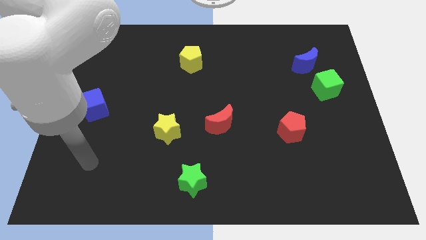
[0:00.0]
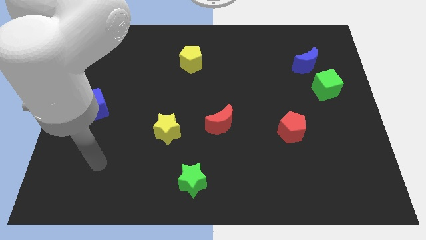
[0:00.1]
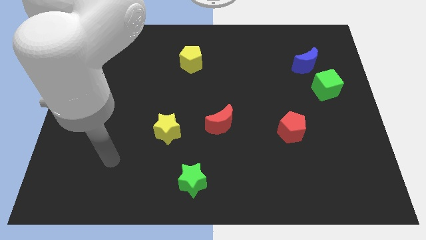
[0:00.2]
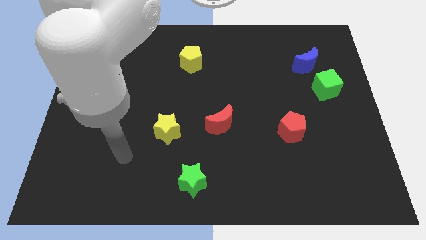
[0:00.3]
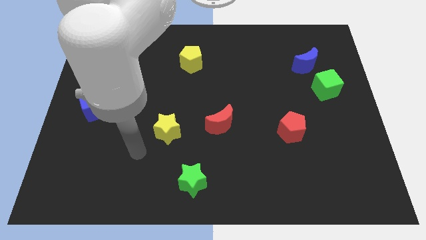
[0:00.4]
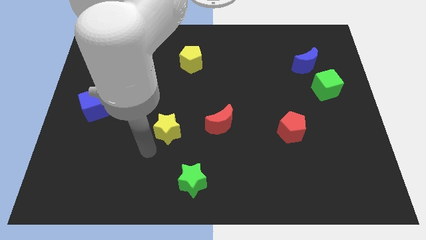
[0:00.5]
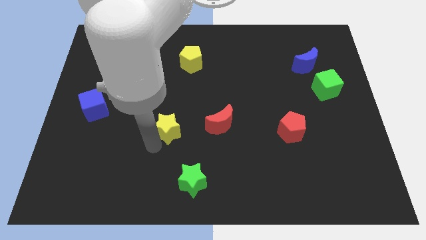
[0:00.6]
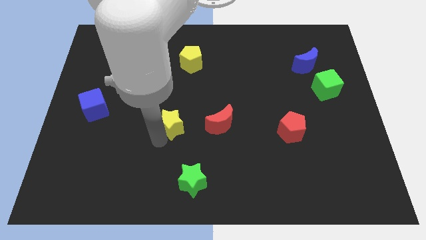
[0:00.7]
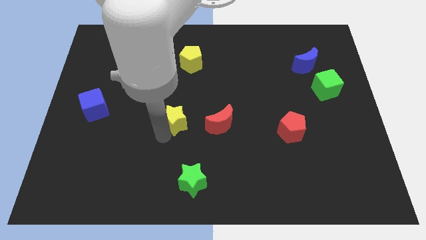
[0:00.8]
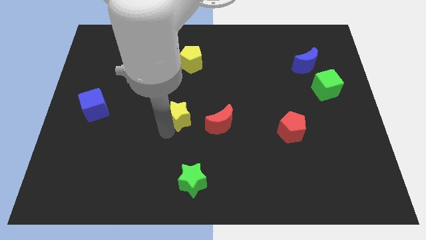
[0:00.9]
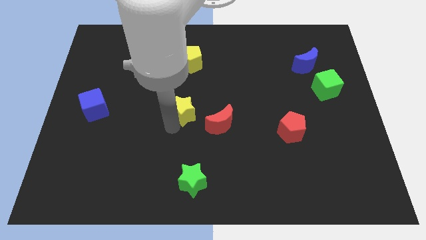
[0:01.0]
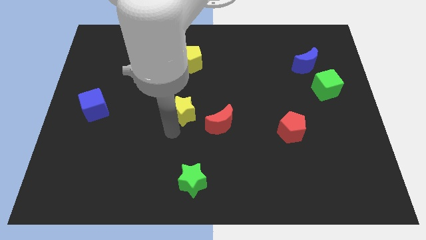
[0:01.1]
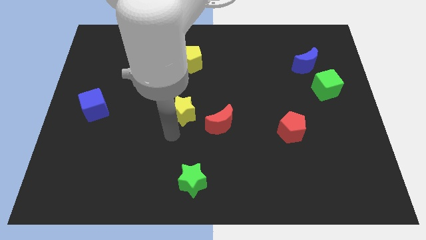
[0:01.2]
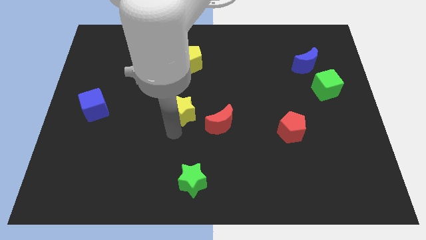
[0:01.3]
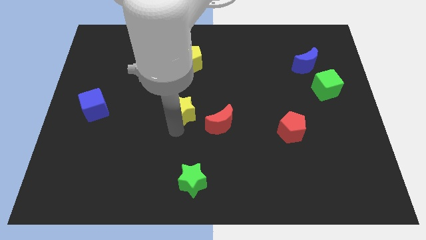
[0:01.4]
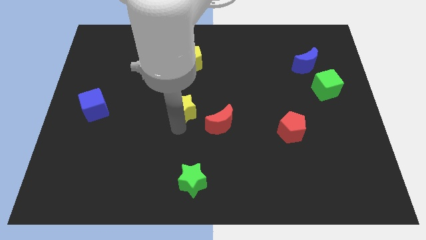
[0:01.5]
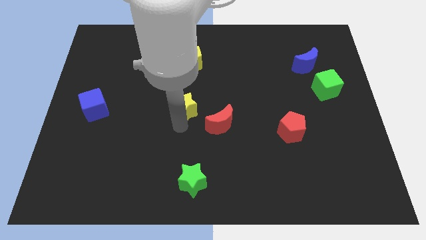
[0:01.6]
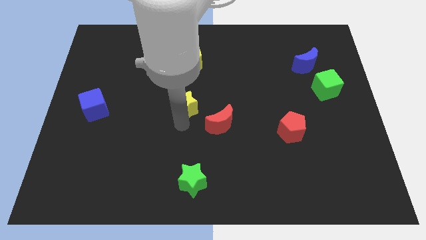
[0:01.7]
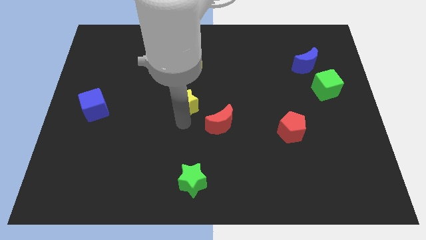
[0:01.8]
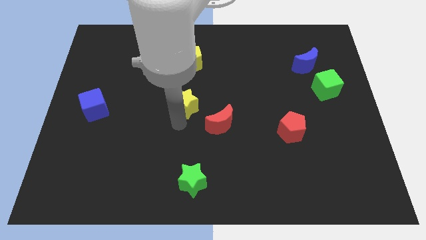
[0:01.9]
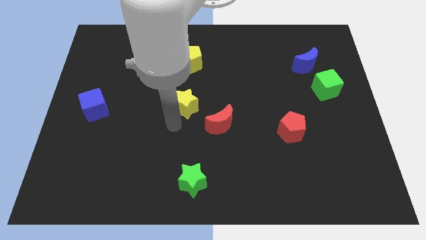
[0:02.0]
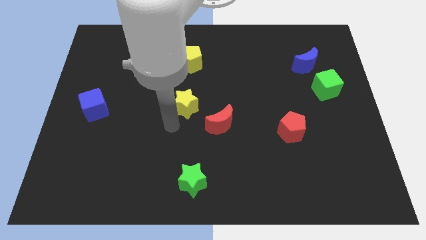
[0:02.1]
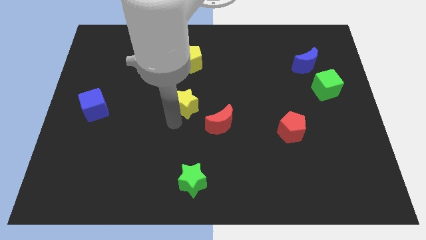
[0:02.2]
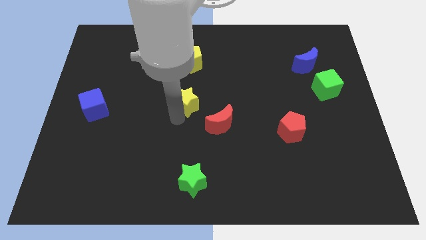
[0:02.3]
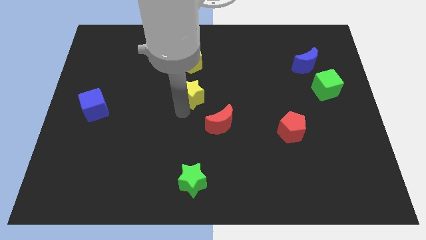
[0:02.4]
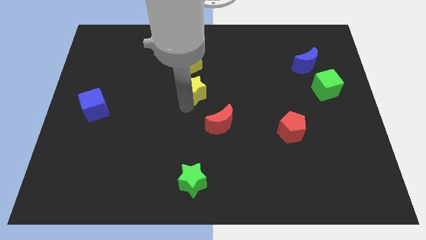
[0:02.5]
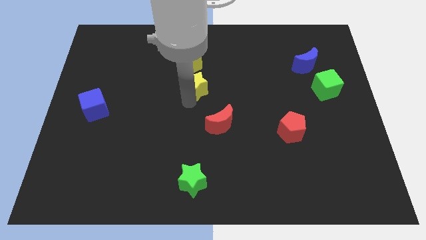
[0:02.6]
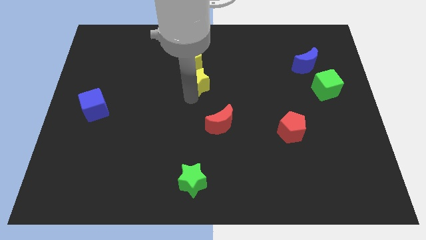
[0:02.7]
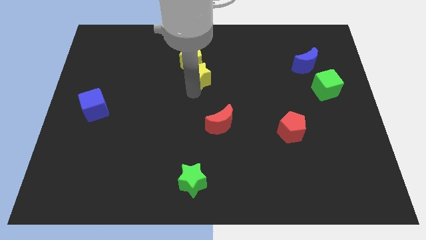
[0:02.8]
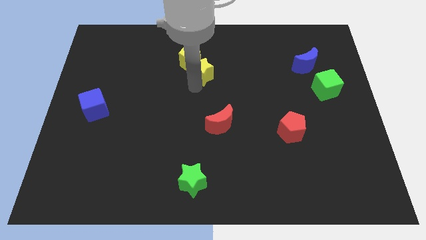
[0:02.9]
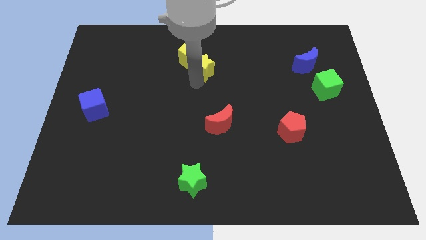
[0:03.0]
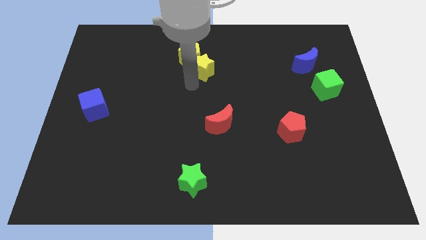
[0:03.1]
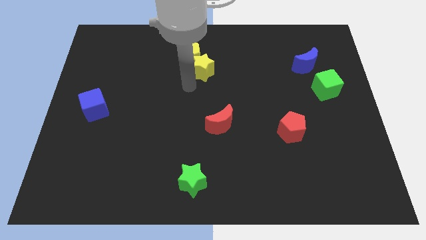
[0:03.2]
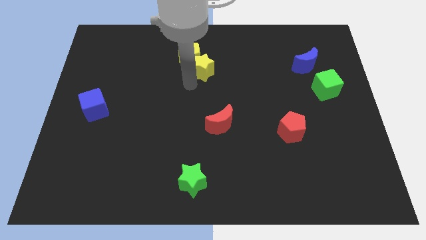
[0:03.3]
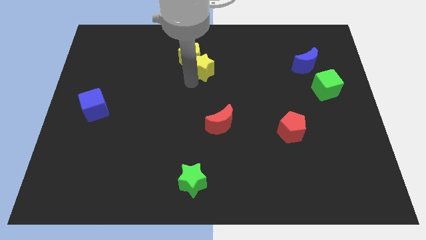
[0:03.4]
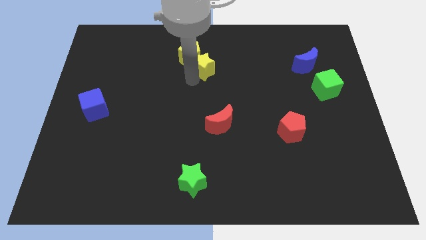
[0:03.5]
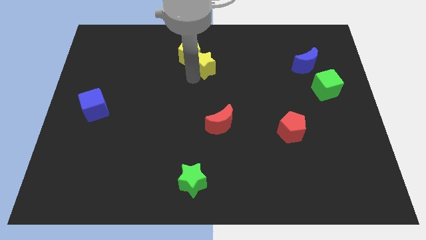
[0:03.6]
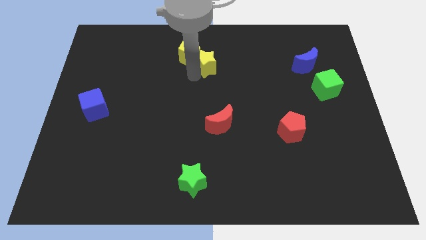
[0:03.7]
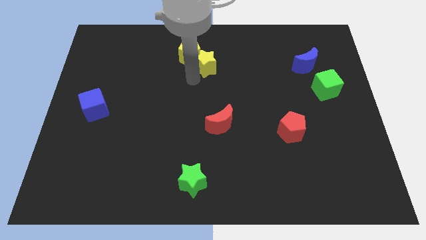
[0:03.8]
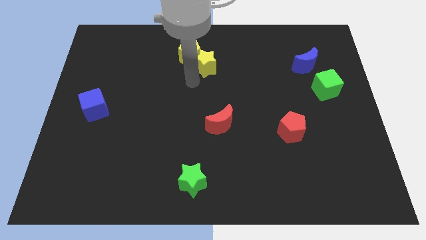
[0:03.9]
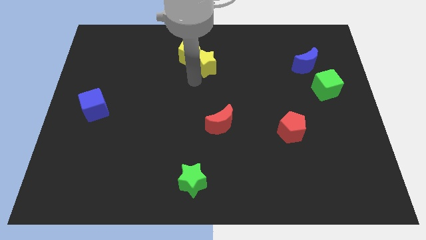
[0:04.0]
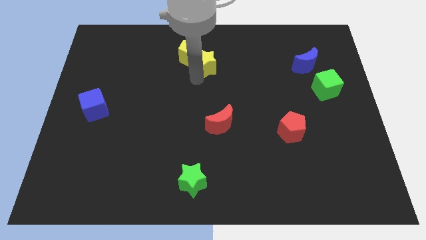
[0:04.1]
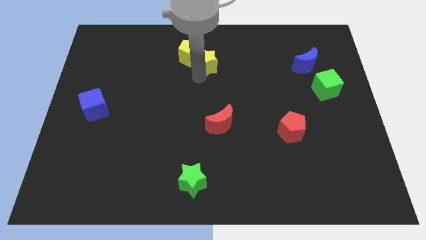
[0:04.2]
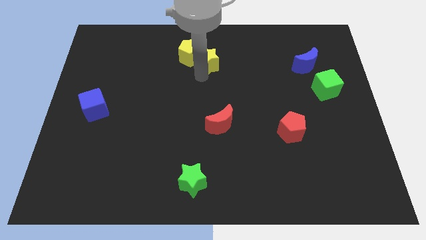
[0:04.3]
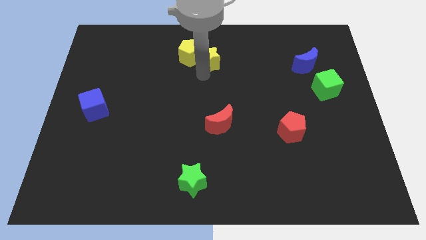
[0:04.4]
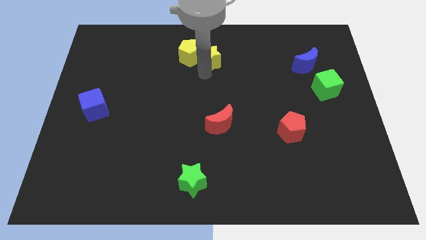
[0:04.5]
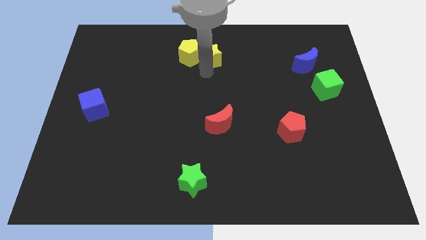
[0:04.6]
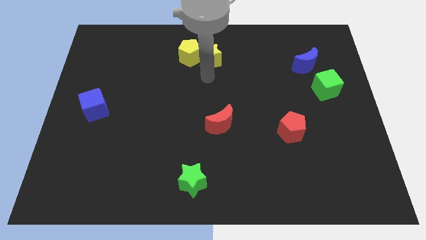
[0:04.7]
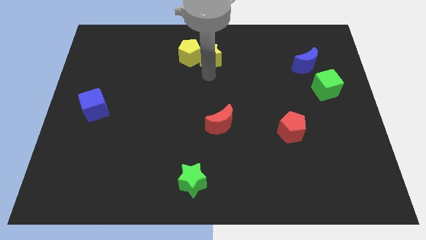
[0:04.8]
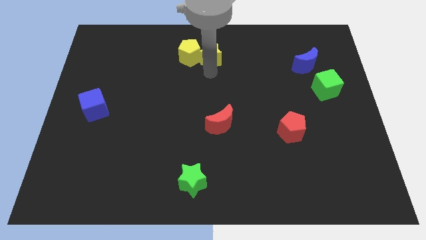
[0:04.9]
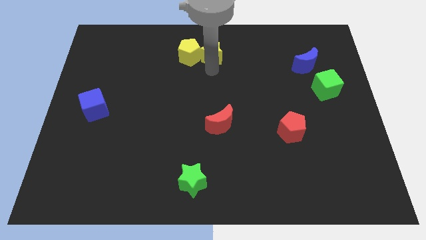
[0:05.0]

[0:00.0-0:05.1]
slide the yellow star to the top

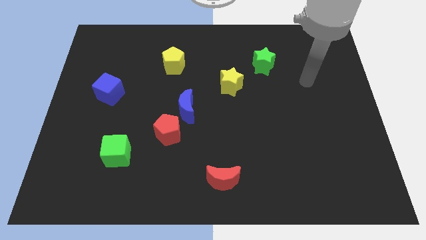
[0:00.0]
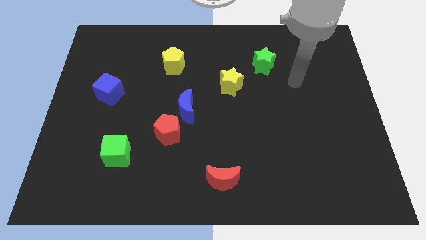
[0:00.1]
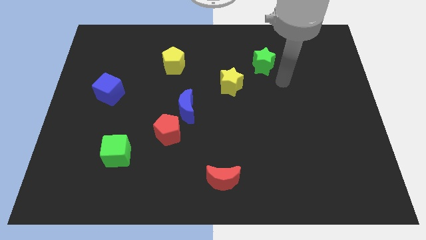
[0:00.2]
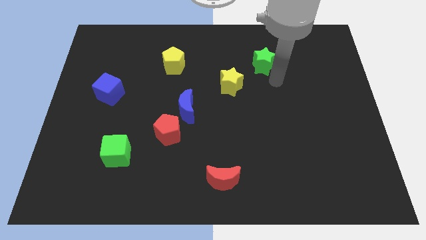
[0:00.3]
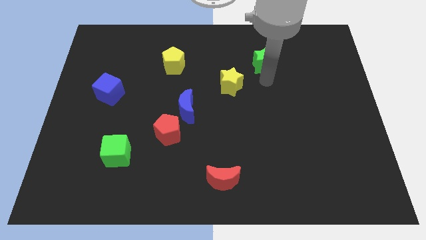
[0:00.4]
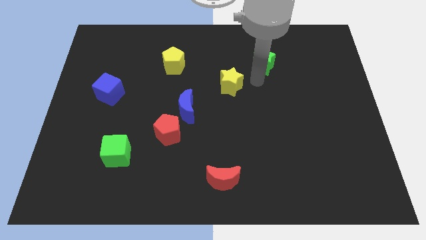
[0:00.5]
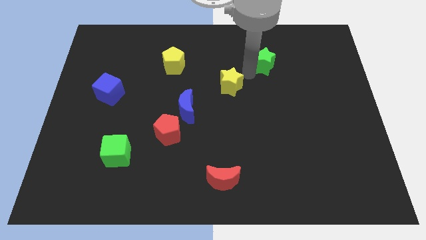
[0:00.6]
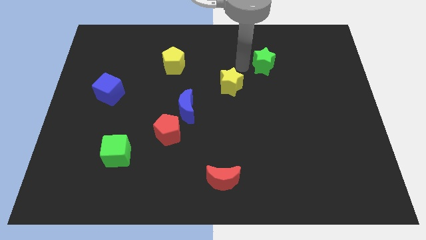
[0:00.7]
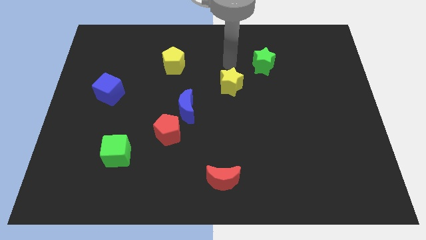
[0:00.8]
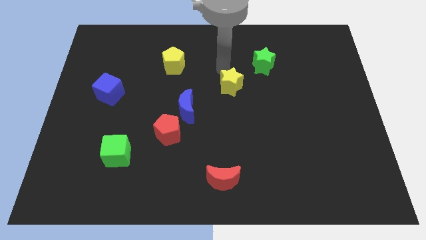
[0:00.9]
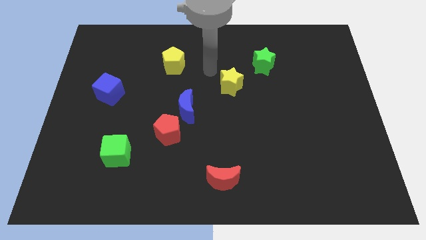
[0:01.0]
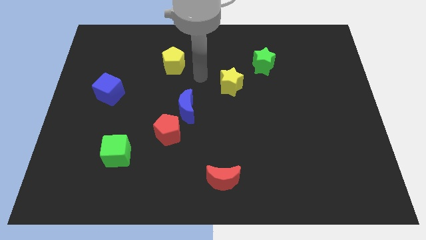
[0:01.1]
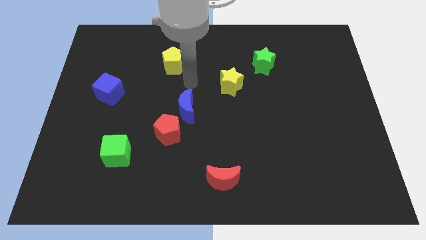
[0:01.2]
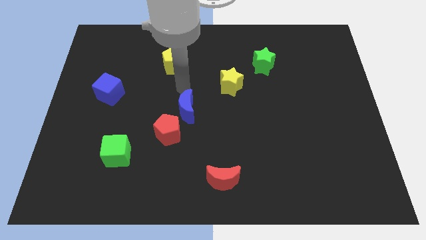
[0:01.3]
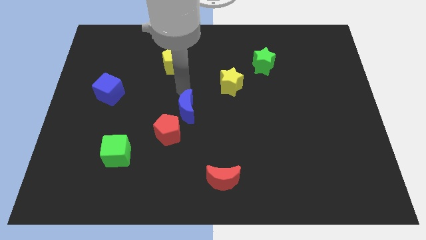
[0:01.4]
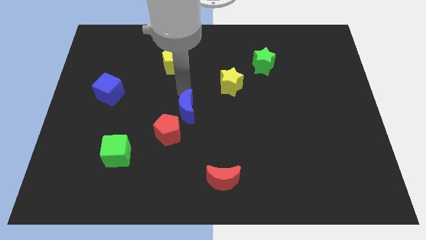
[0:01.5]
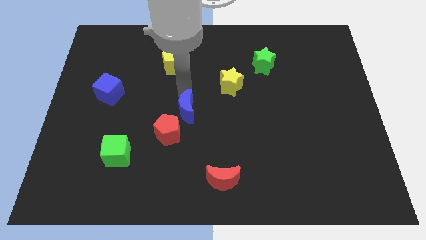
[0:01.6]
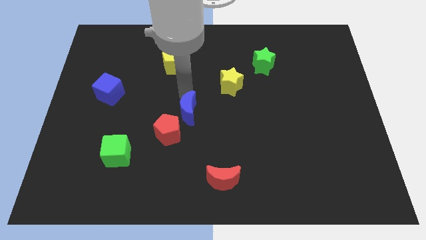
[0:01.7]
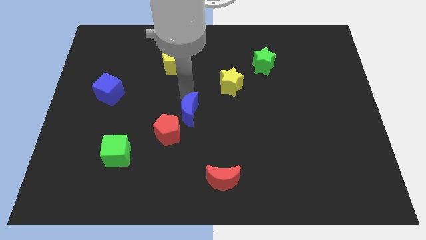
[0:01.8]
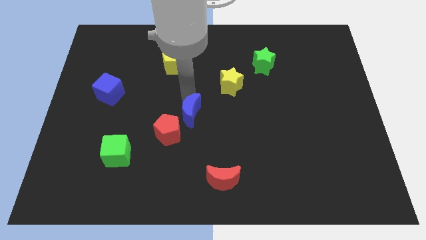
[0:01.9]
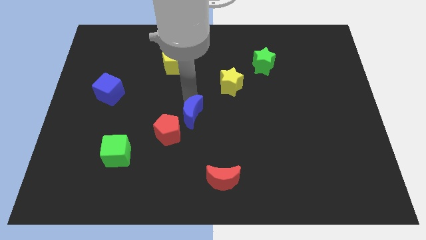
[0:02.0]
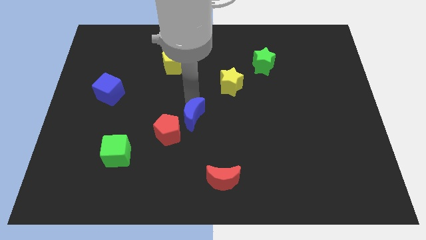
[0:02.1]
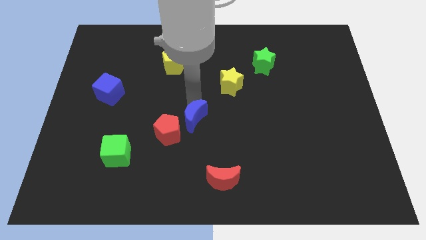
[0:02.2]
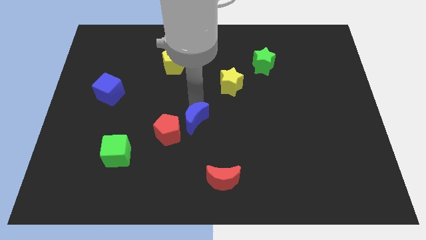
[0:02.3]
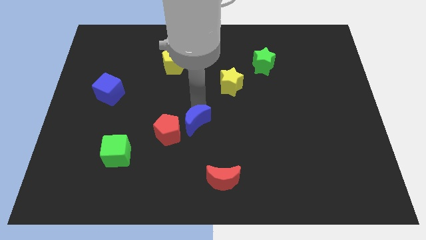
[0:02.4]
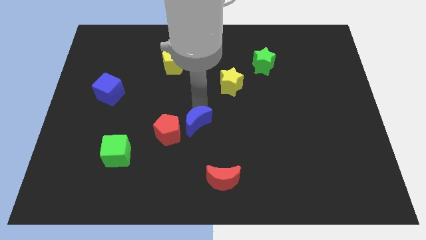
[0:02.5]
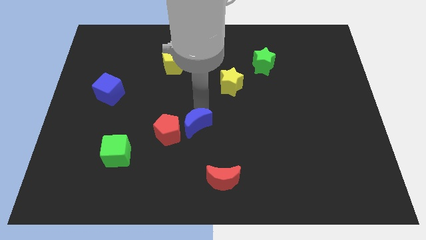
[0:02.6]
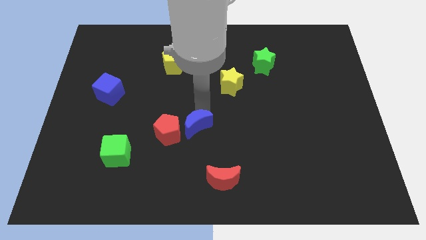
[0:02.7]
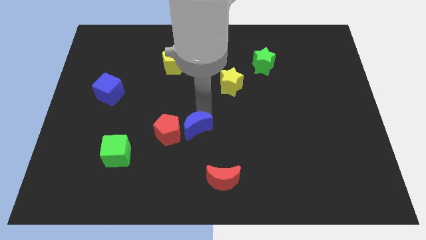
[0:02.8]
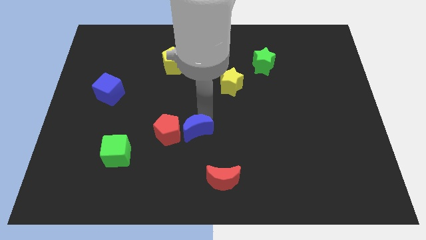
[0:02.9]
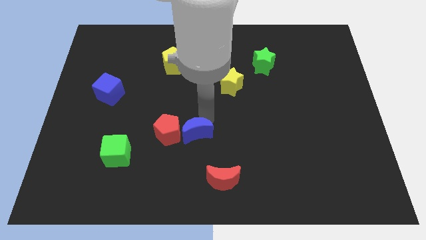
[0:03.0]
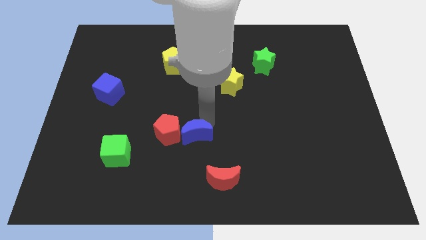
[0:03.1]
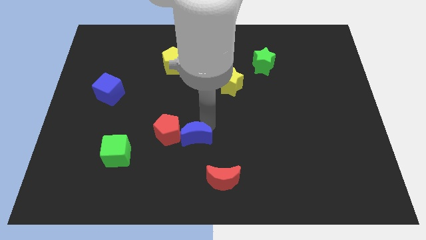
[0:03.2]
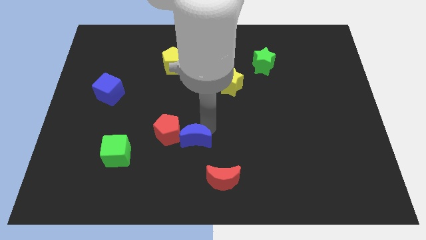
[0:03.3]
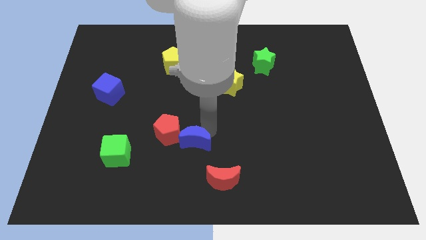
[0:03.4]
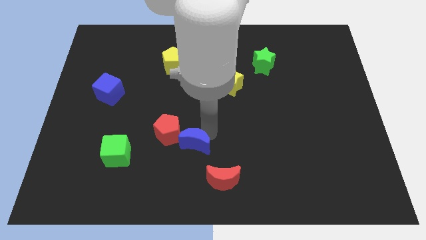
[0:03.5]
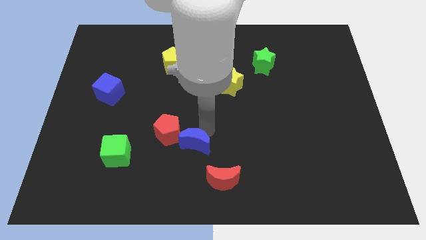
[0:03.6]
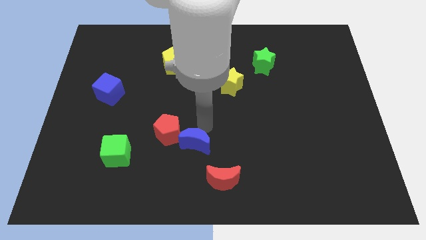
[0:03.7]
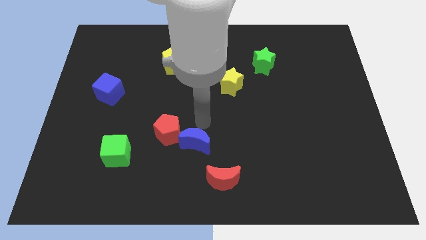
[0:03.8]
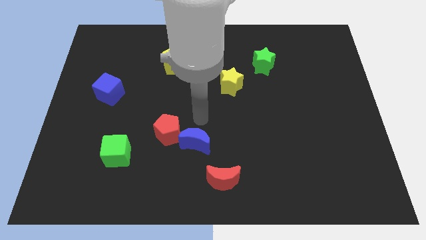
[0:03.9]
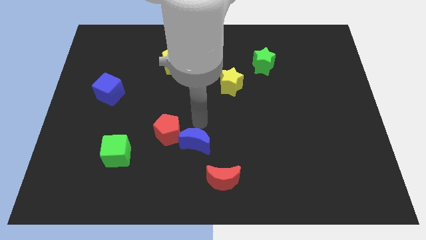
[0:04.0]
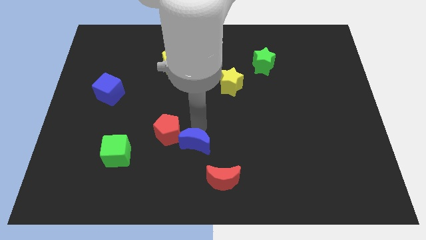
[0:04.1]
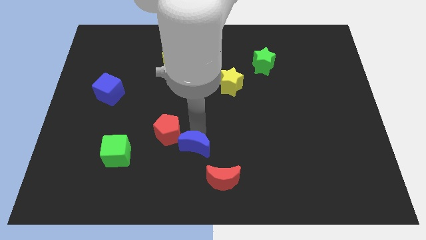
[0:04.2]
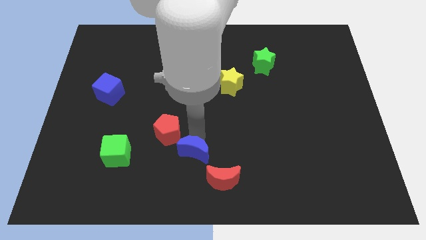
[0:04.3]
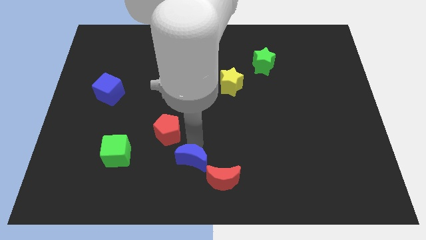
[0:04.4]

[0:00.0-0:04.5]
slide the blue moon to the bottom side
